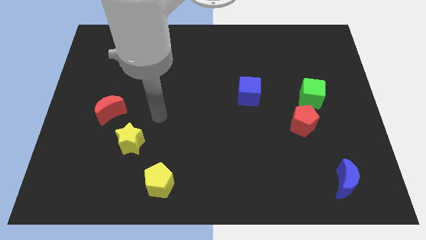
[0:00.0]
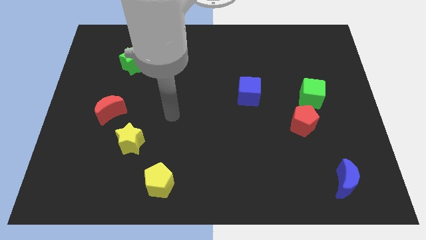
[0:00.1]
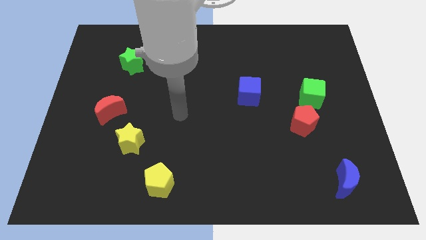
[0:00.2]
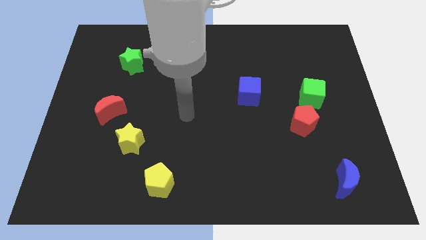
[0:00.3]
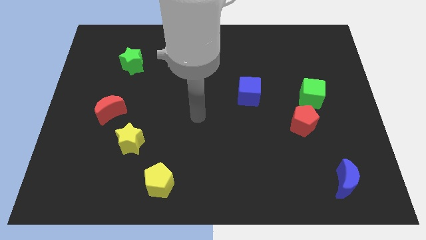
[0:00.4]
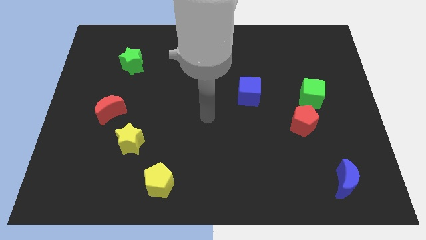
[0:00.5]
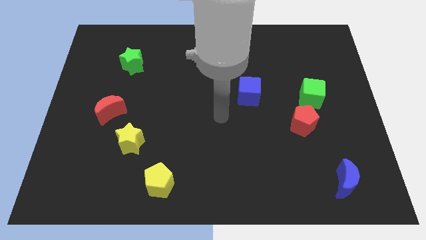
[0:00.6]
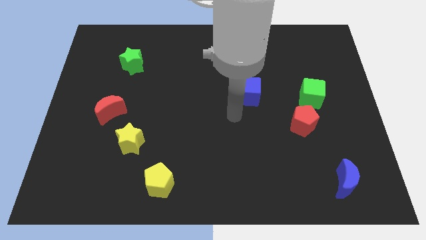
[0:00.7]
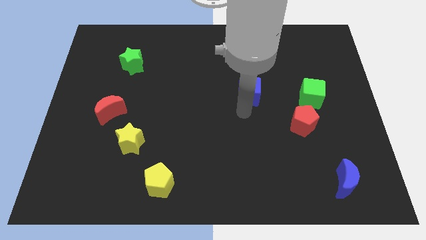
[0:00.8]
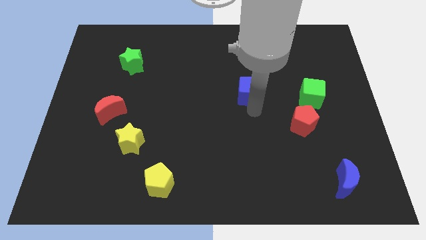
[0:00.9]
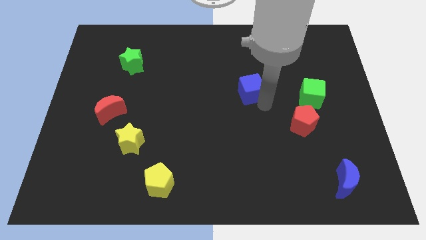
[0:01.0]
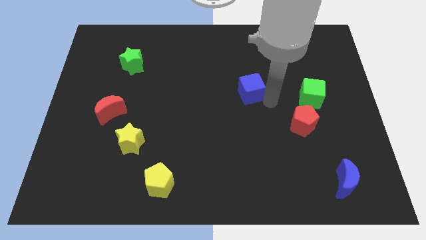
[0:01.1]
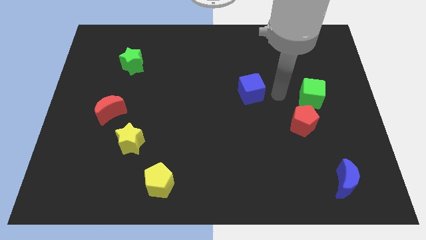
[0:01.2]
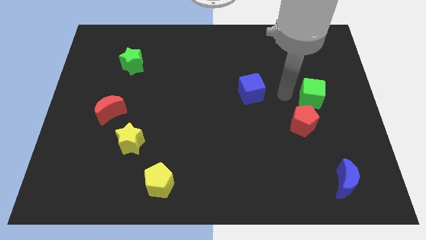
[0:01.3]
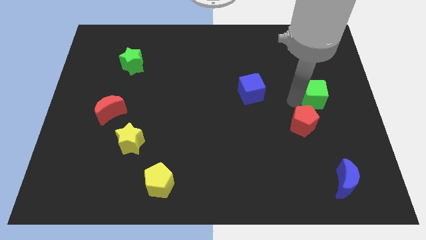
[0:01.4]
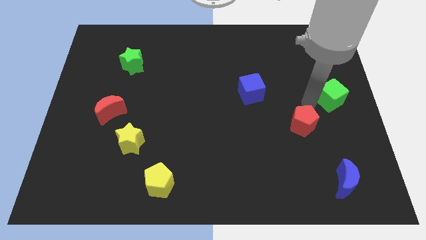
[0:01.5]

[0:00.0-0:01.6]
pull the red pentagon apart from the green cube

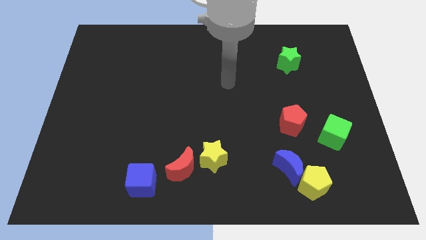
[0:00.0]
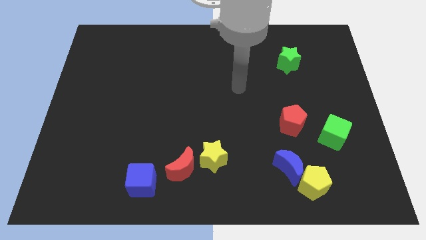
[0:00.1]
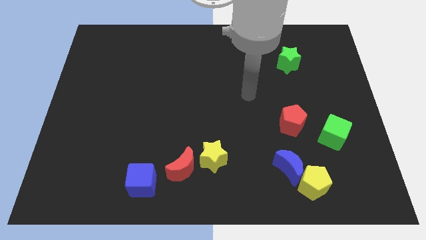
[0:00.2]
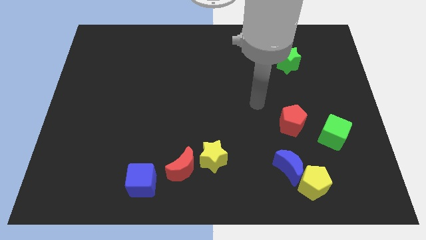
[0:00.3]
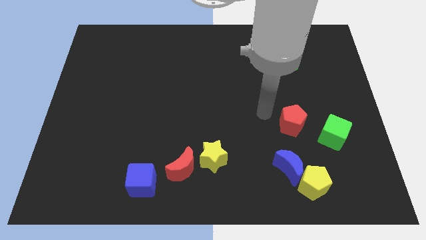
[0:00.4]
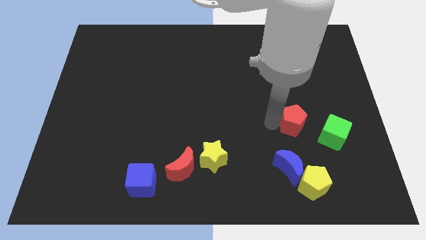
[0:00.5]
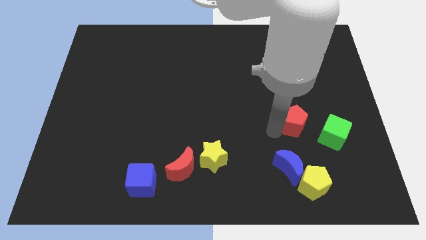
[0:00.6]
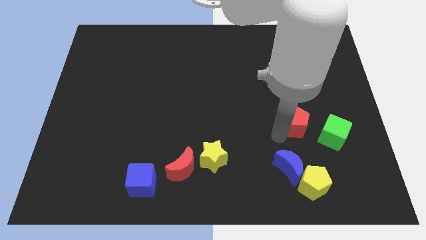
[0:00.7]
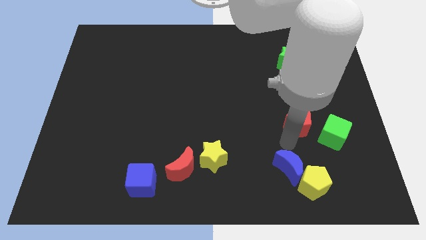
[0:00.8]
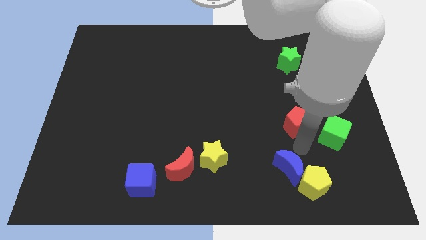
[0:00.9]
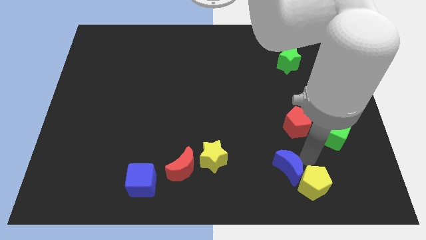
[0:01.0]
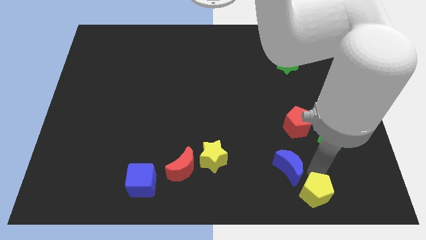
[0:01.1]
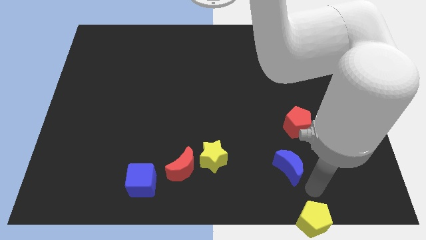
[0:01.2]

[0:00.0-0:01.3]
pull the blue moon apart from the yellow pentagon

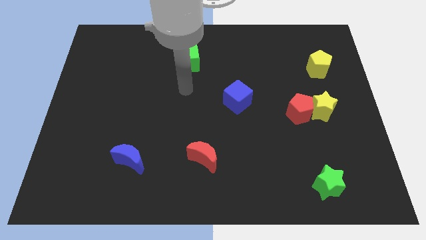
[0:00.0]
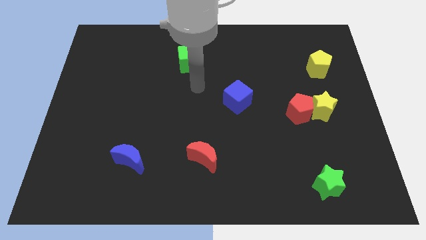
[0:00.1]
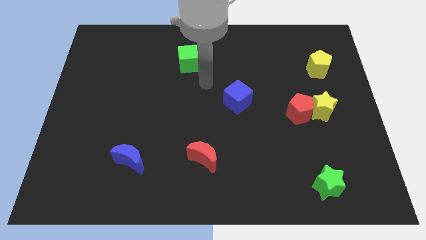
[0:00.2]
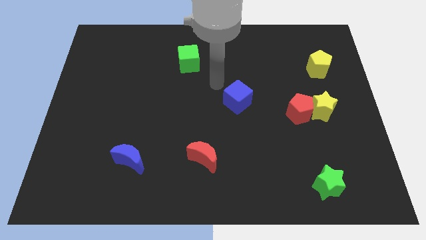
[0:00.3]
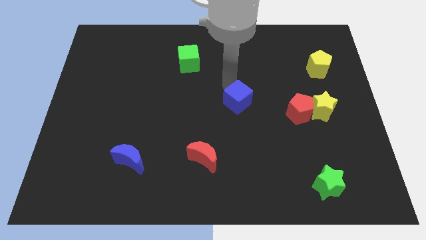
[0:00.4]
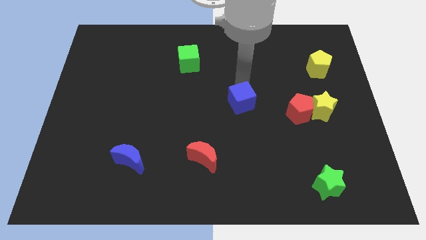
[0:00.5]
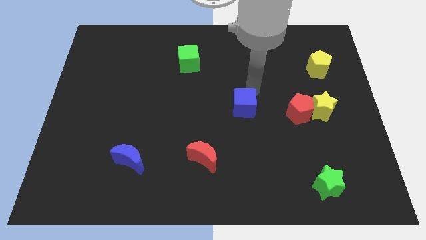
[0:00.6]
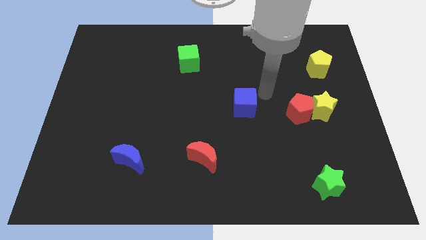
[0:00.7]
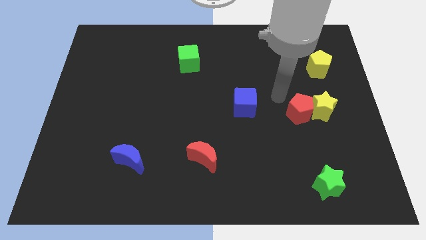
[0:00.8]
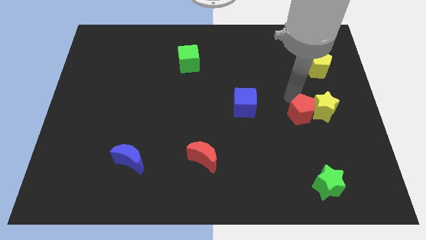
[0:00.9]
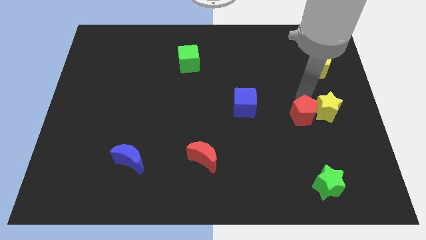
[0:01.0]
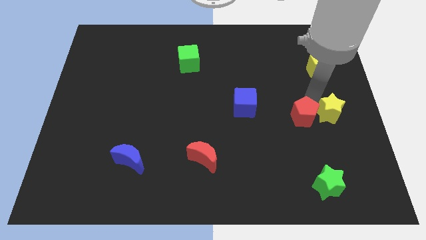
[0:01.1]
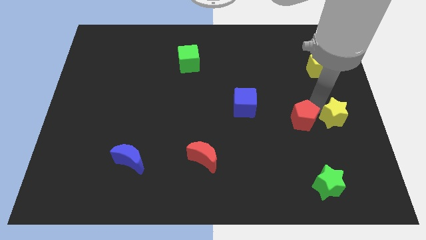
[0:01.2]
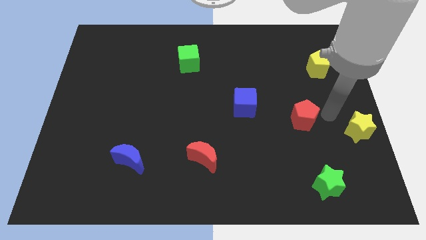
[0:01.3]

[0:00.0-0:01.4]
separate the red pentagon from the yellow star

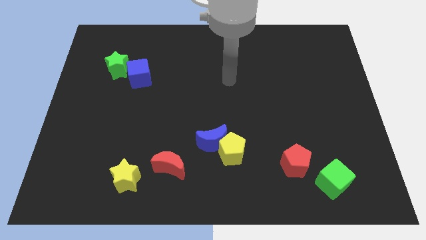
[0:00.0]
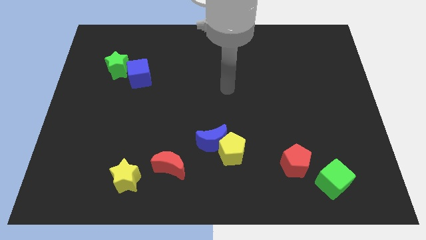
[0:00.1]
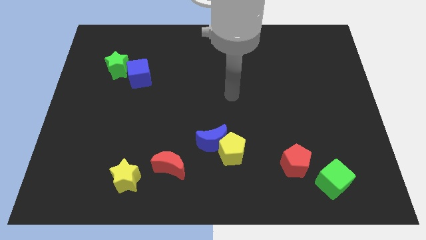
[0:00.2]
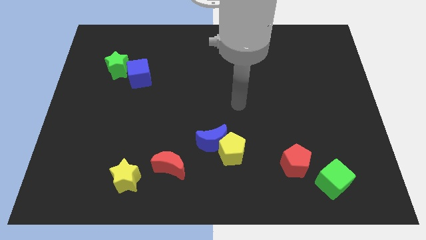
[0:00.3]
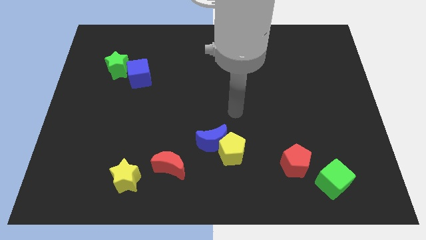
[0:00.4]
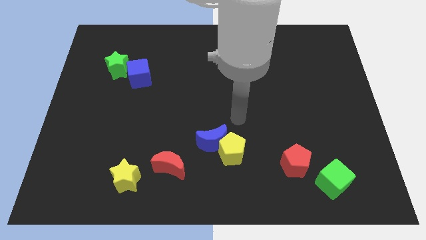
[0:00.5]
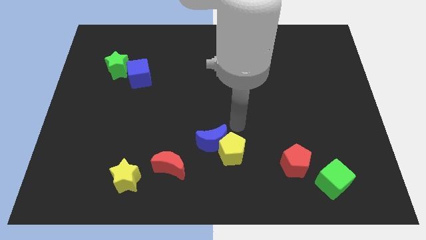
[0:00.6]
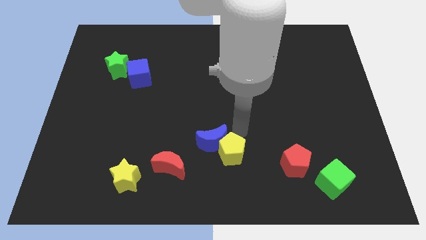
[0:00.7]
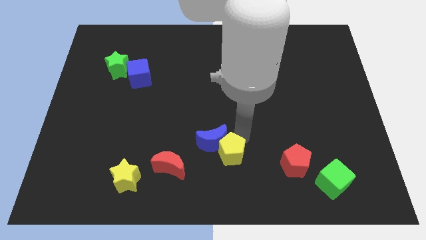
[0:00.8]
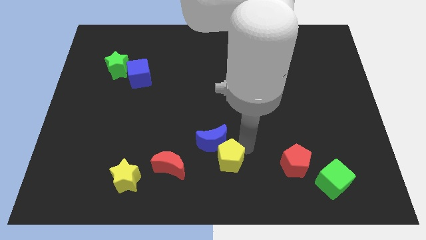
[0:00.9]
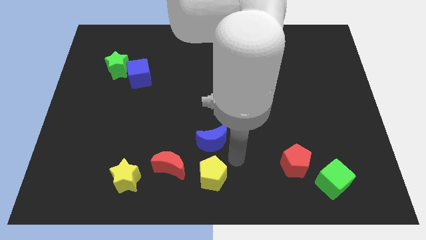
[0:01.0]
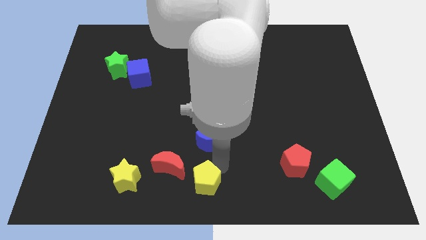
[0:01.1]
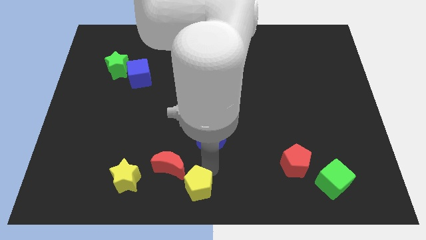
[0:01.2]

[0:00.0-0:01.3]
separate the blue moon from the yellow pentagon

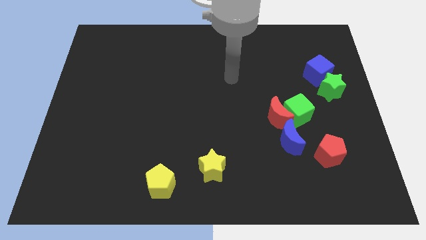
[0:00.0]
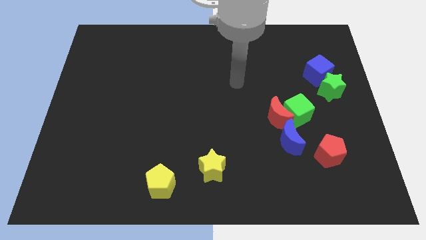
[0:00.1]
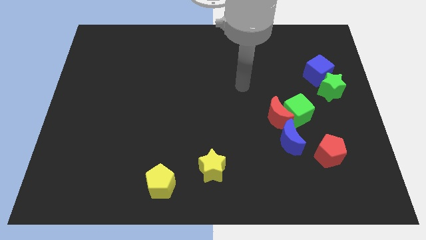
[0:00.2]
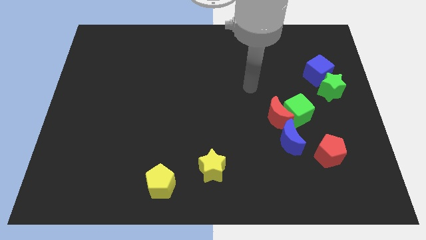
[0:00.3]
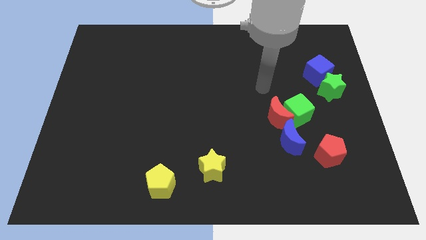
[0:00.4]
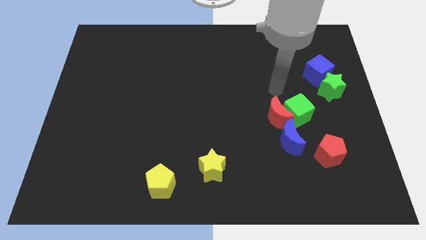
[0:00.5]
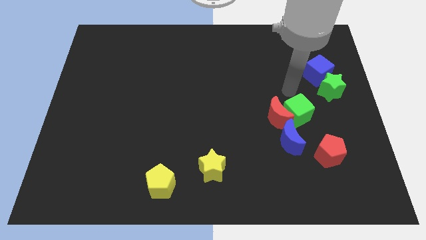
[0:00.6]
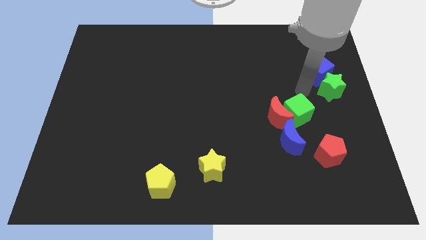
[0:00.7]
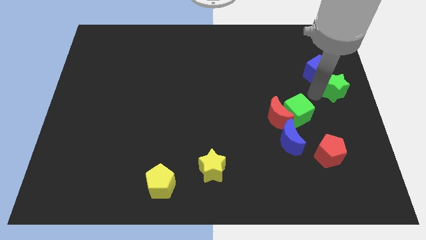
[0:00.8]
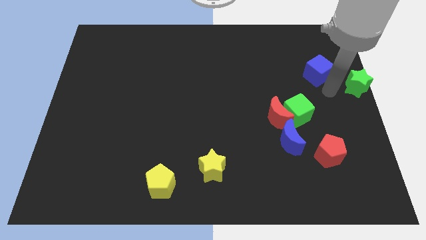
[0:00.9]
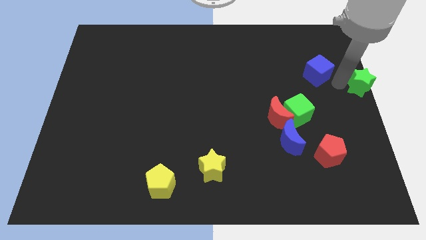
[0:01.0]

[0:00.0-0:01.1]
pull the blue cube apart from the green star

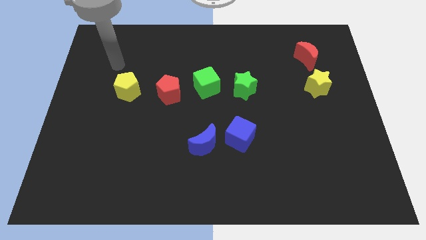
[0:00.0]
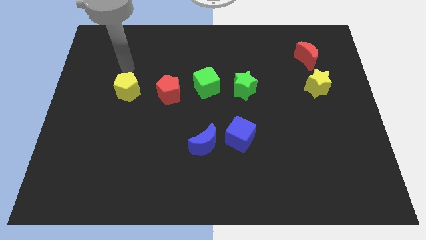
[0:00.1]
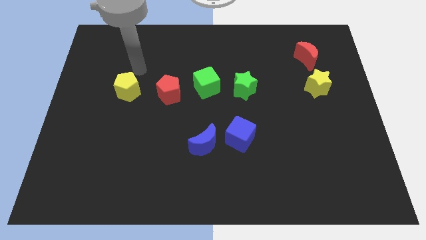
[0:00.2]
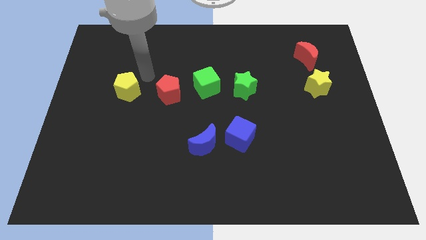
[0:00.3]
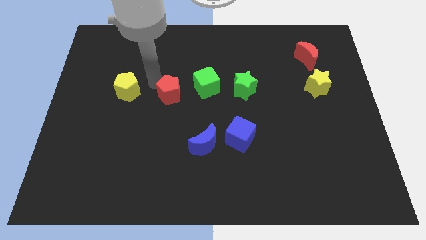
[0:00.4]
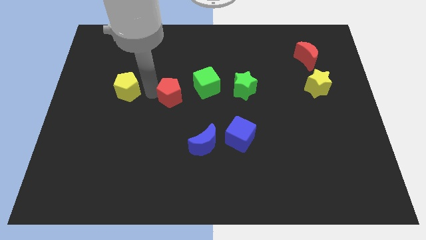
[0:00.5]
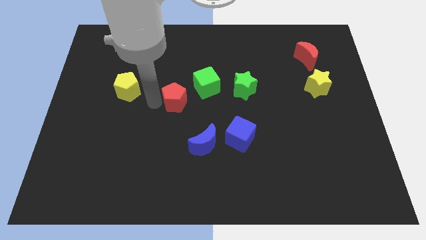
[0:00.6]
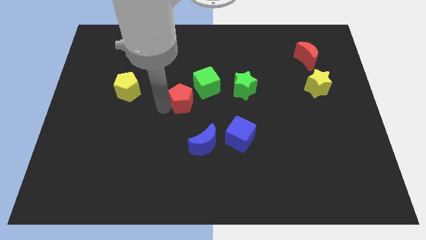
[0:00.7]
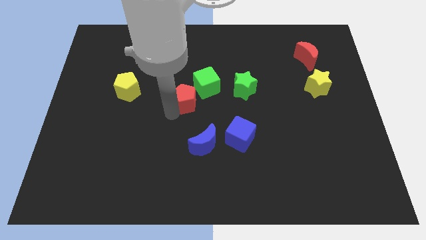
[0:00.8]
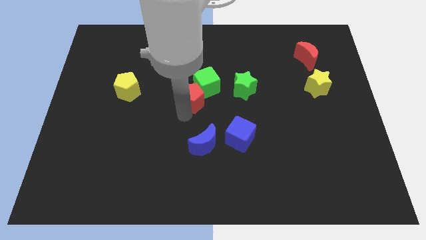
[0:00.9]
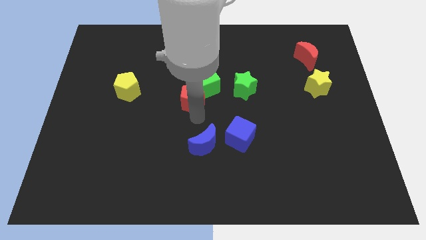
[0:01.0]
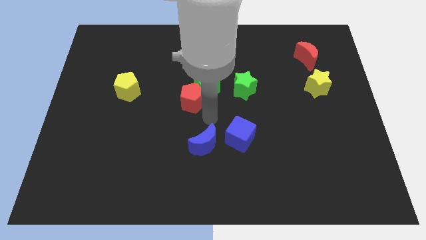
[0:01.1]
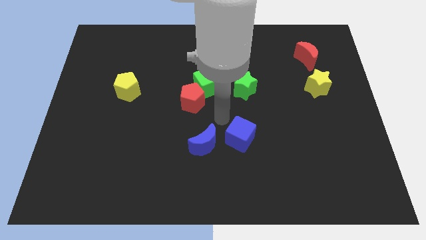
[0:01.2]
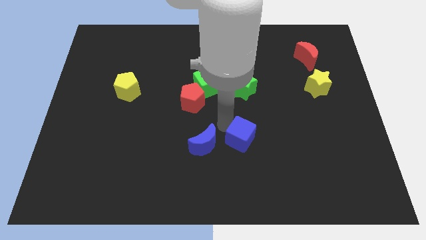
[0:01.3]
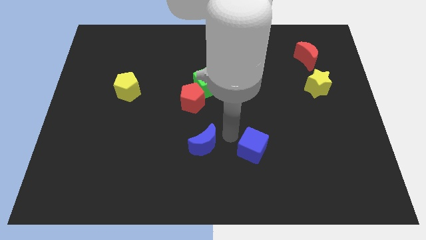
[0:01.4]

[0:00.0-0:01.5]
separate the blue moon from the blue cube

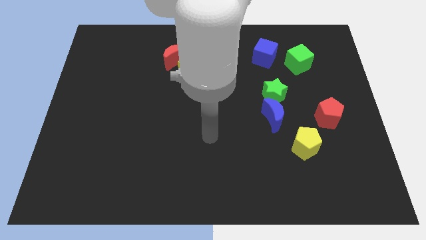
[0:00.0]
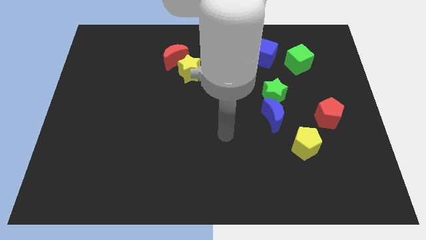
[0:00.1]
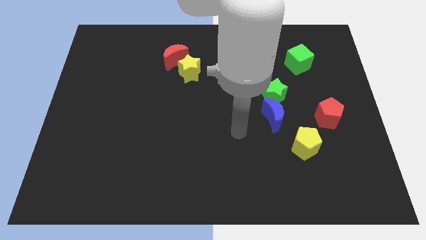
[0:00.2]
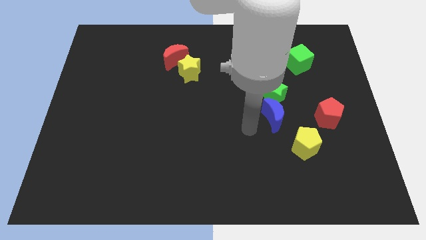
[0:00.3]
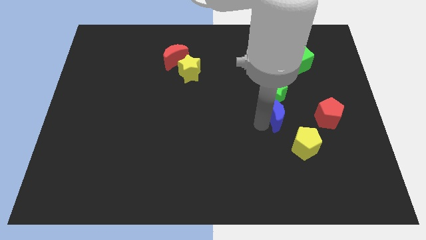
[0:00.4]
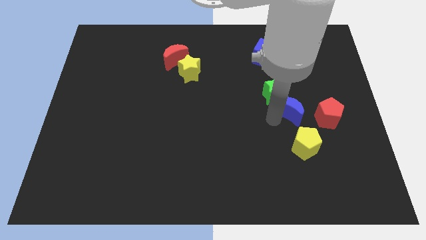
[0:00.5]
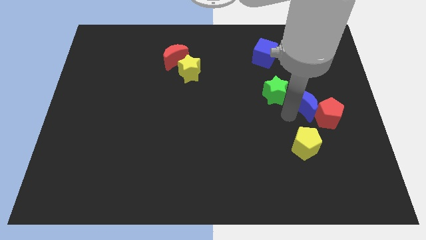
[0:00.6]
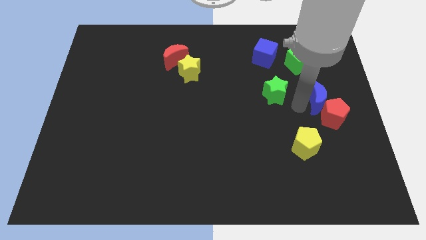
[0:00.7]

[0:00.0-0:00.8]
separate the green star from the blue moon

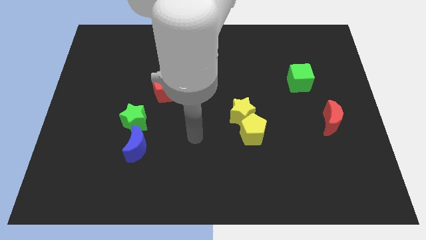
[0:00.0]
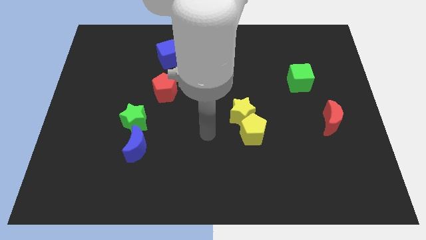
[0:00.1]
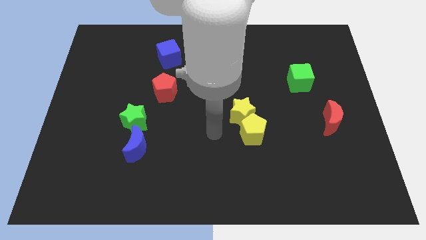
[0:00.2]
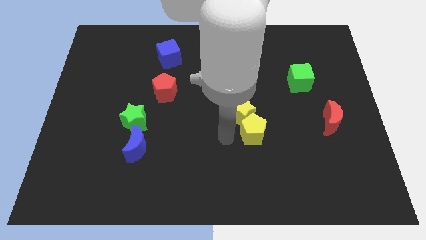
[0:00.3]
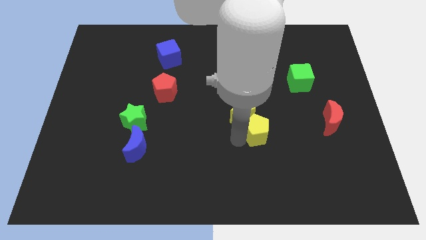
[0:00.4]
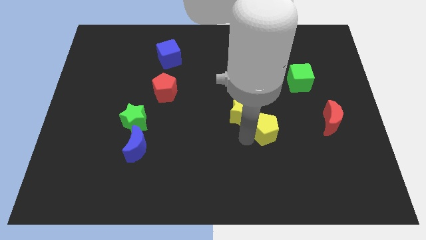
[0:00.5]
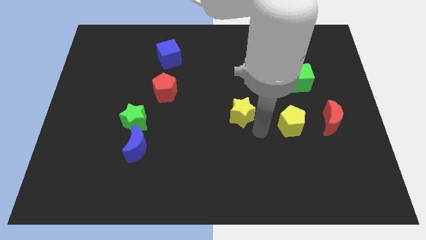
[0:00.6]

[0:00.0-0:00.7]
pull the yellow star apart from the yellow pentagon
